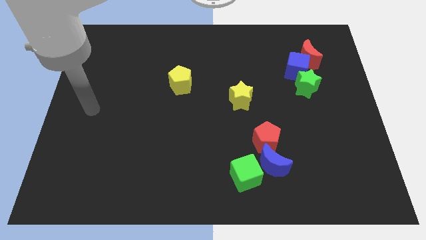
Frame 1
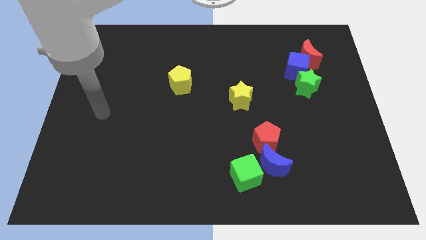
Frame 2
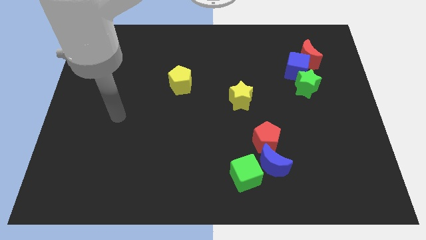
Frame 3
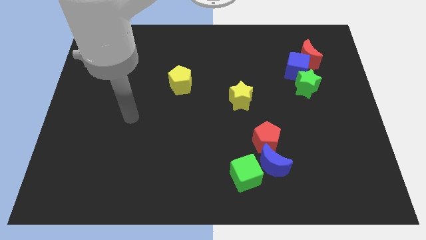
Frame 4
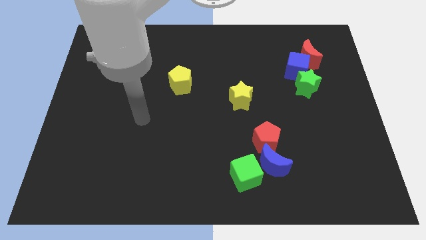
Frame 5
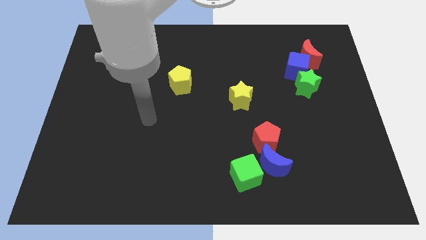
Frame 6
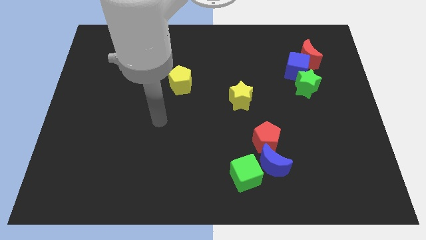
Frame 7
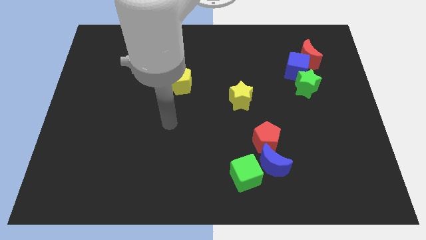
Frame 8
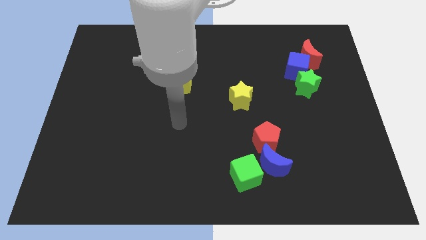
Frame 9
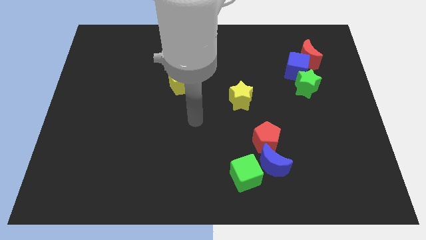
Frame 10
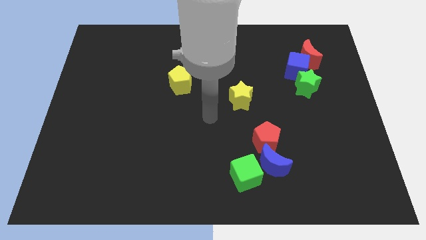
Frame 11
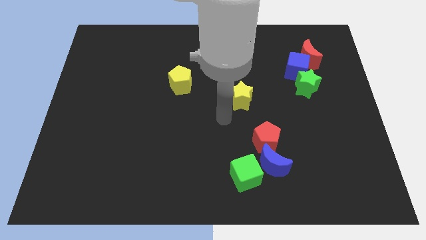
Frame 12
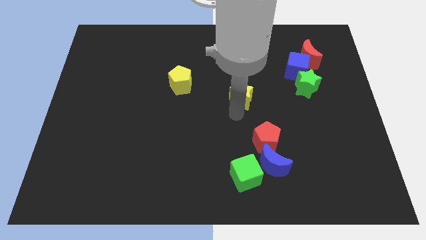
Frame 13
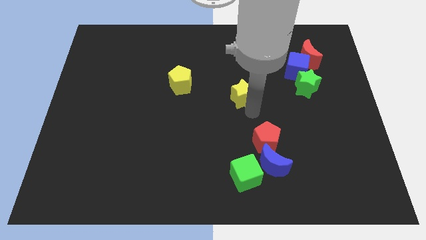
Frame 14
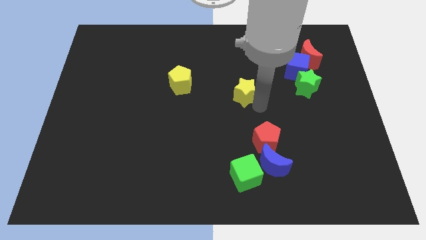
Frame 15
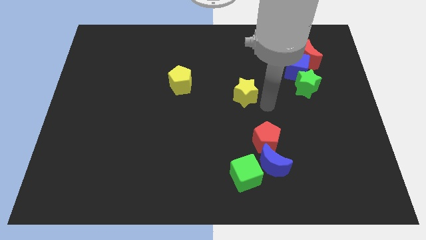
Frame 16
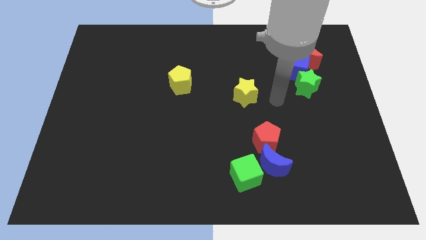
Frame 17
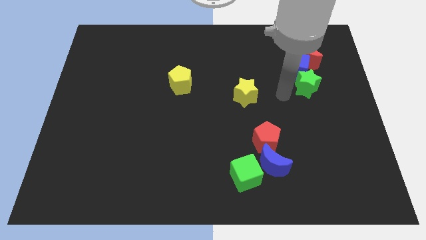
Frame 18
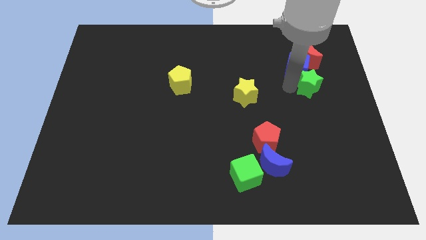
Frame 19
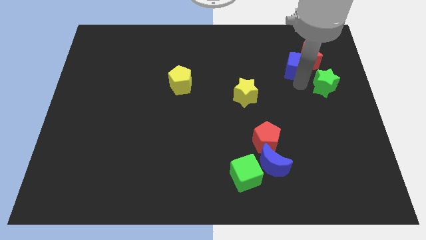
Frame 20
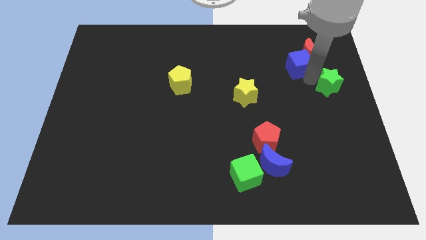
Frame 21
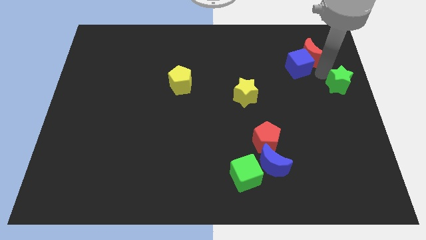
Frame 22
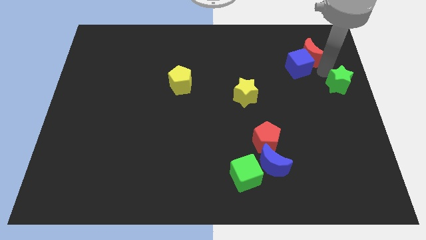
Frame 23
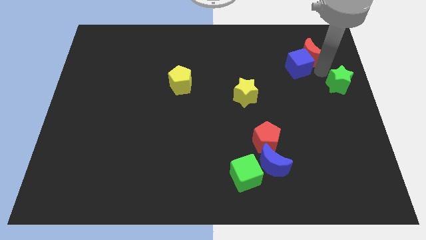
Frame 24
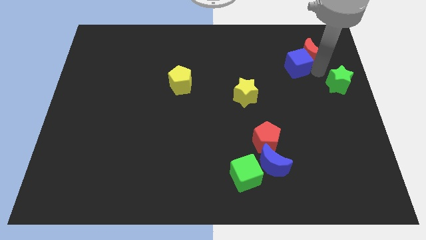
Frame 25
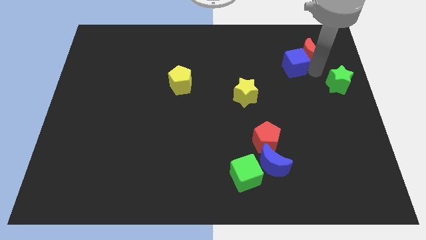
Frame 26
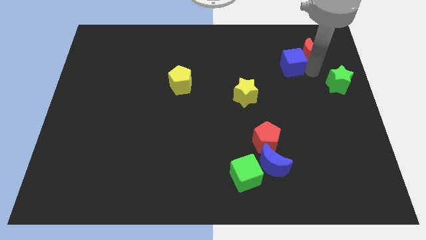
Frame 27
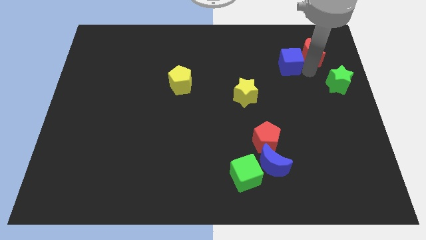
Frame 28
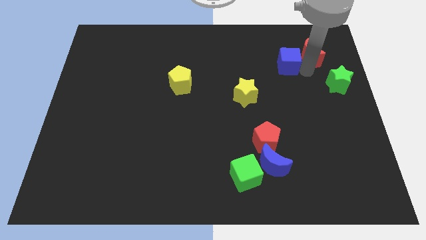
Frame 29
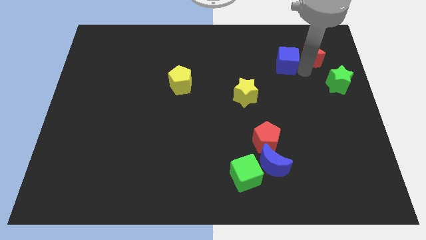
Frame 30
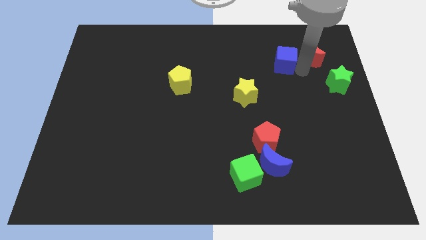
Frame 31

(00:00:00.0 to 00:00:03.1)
separate the blue cube from the red moon and green star

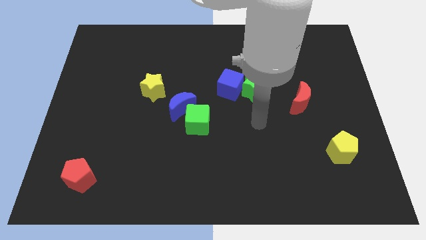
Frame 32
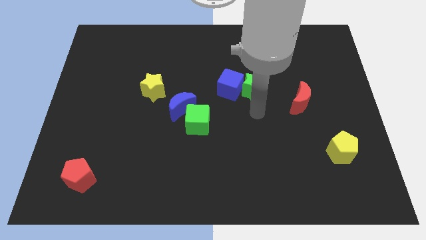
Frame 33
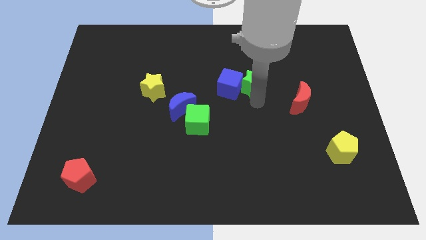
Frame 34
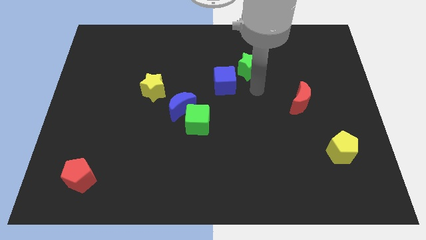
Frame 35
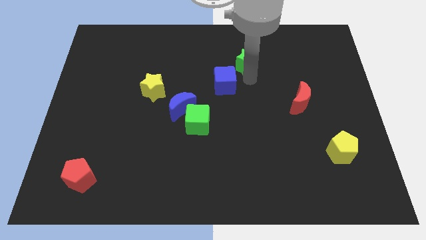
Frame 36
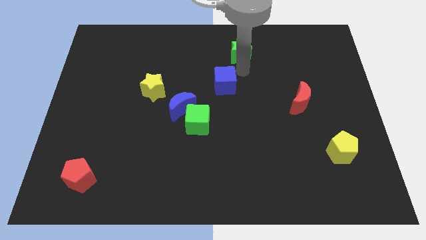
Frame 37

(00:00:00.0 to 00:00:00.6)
pull the blue cube apart from the green star

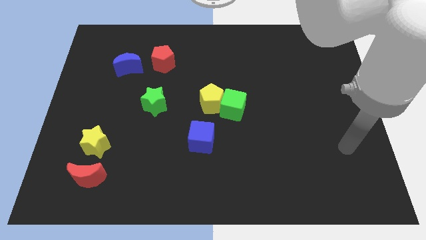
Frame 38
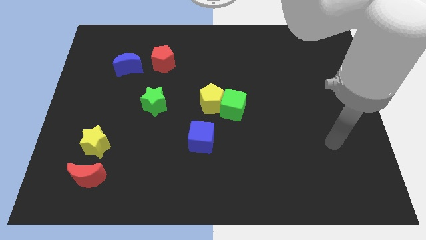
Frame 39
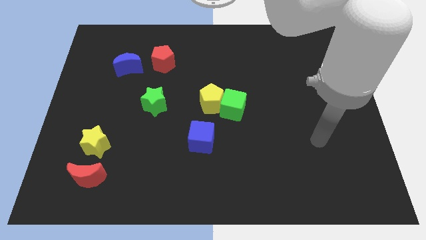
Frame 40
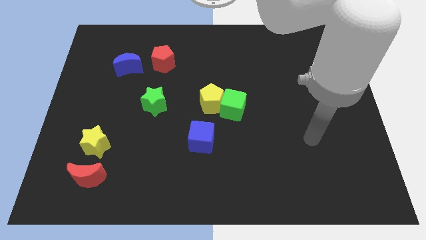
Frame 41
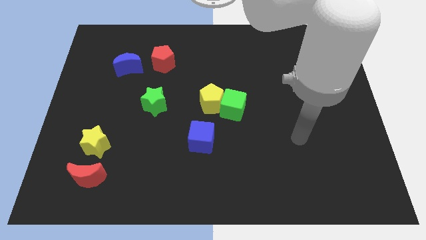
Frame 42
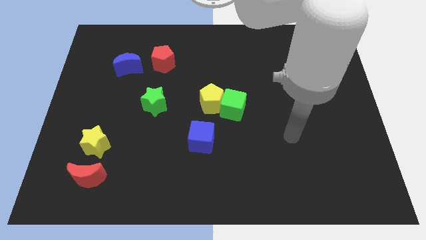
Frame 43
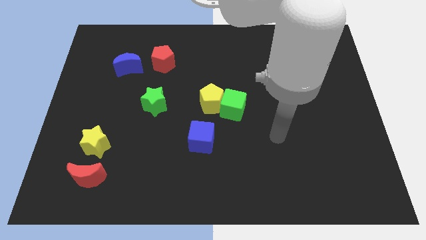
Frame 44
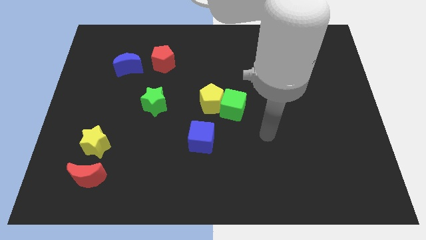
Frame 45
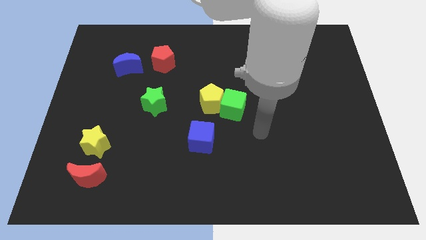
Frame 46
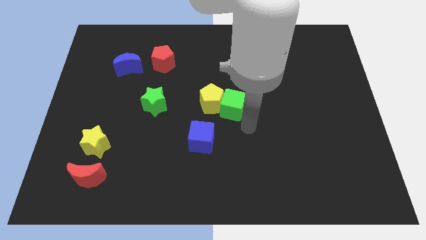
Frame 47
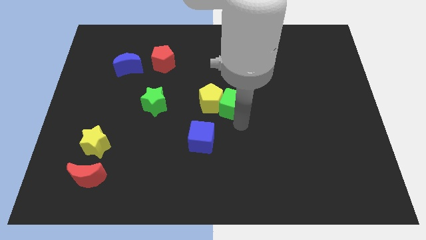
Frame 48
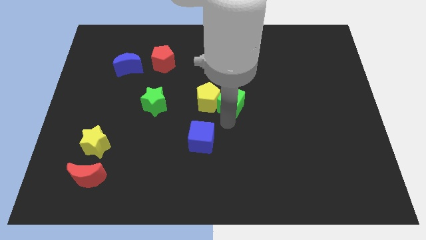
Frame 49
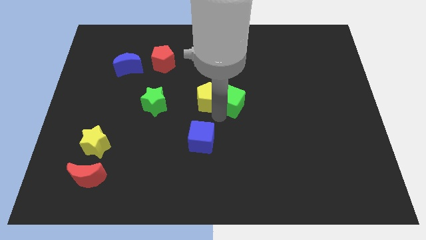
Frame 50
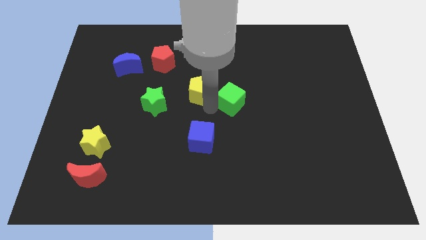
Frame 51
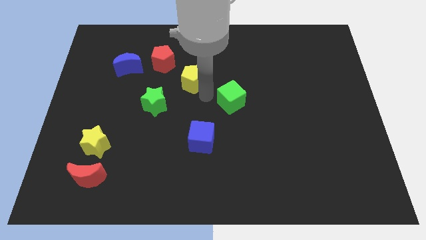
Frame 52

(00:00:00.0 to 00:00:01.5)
pull the green cube apart from the yellow pentagon

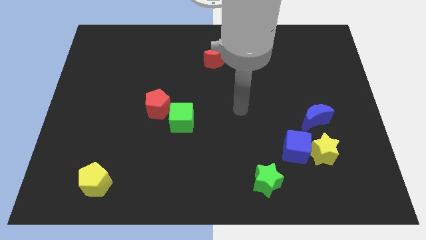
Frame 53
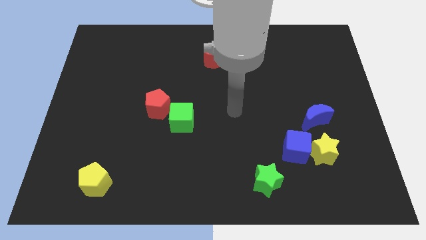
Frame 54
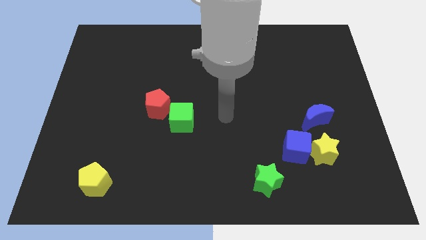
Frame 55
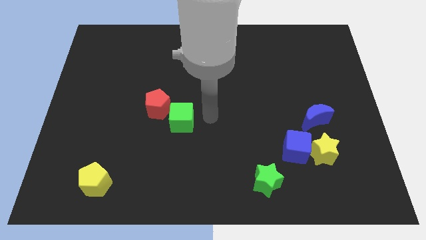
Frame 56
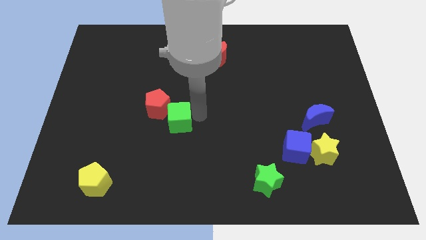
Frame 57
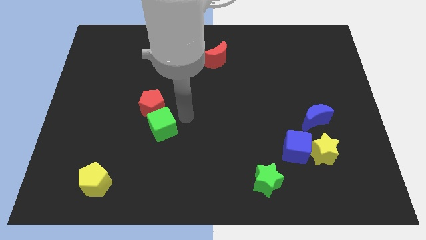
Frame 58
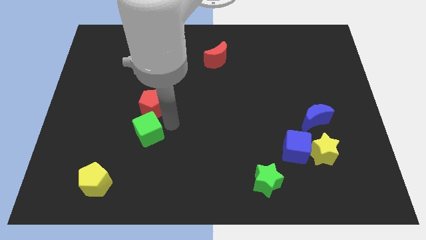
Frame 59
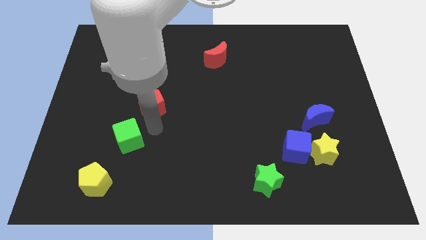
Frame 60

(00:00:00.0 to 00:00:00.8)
pull the red pentagon apart from the green cube

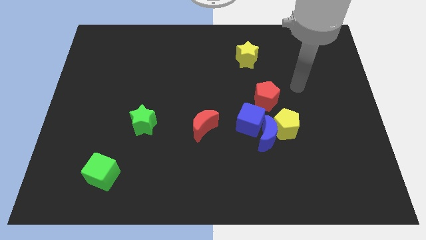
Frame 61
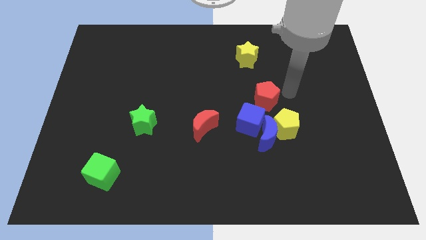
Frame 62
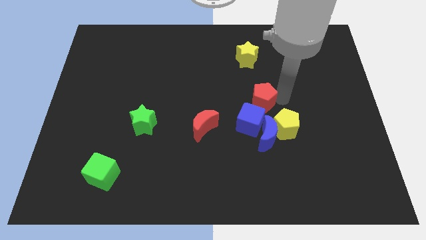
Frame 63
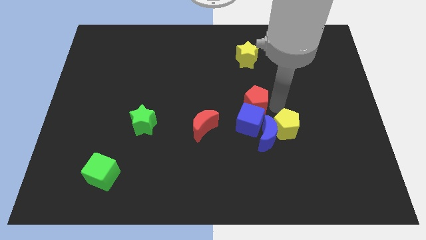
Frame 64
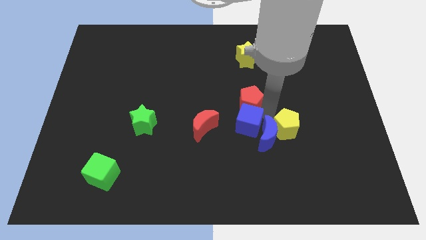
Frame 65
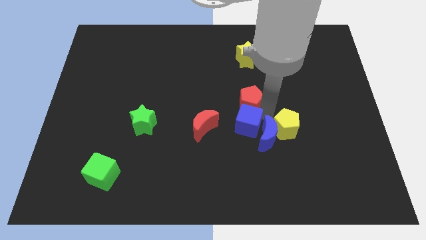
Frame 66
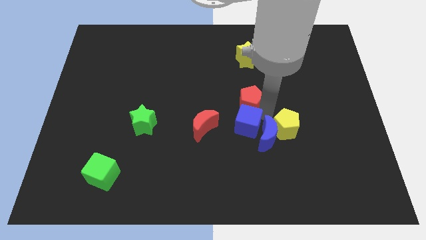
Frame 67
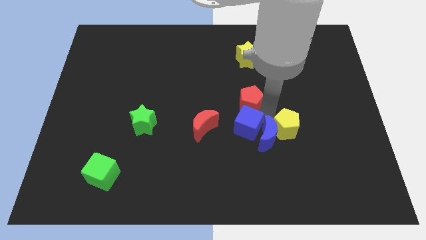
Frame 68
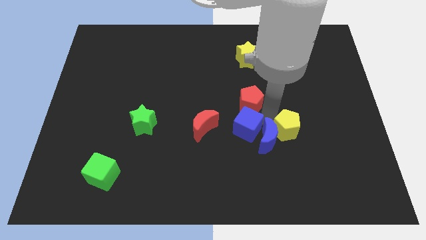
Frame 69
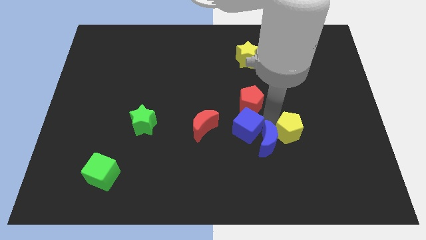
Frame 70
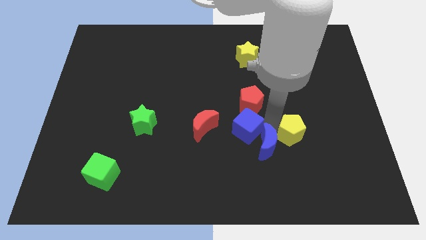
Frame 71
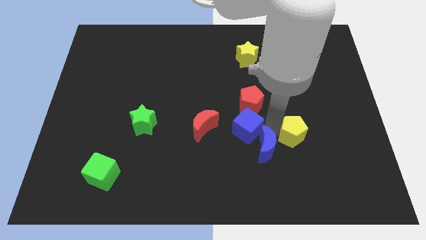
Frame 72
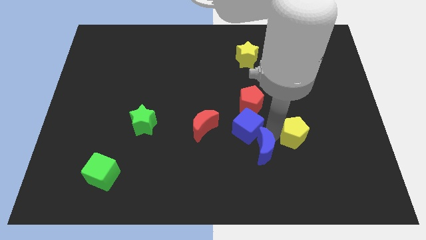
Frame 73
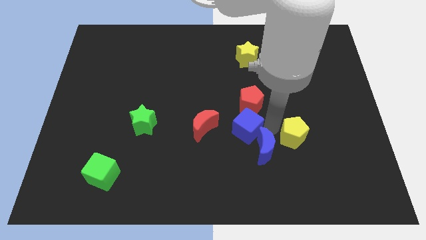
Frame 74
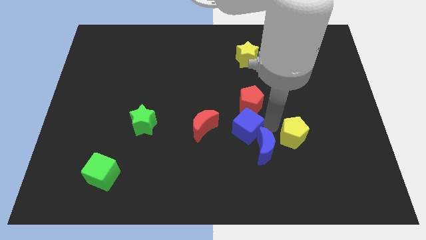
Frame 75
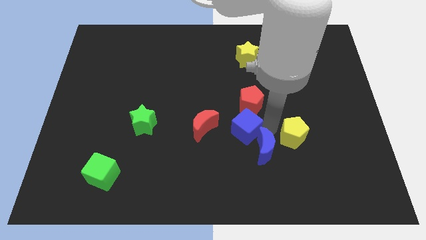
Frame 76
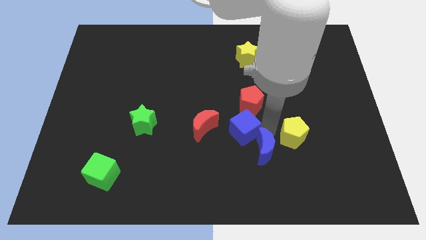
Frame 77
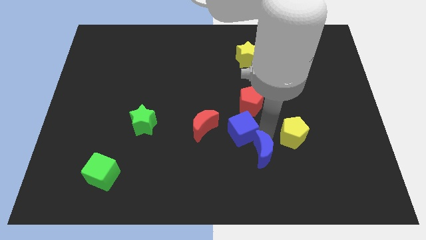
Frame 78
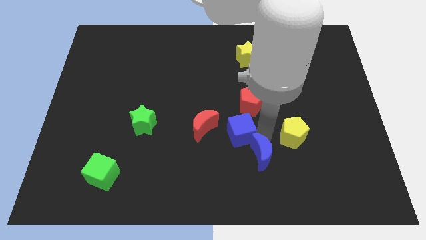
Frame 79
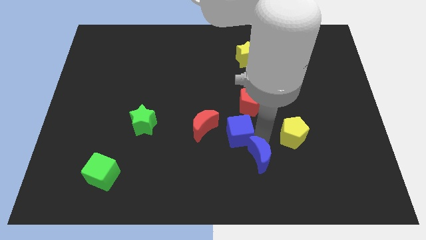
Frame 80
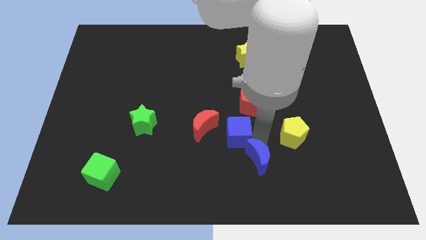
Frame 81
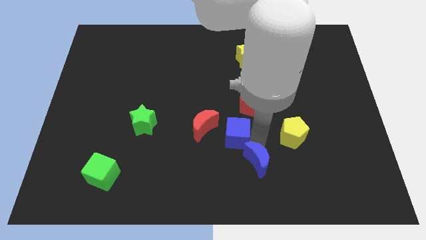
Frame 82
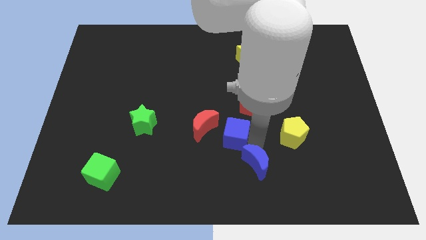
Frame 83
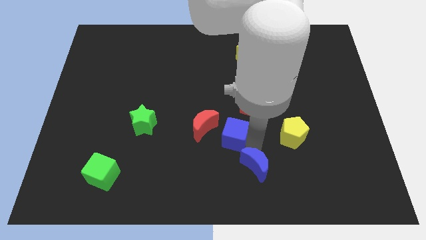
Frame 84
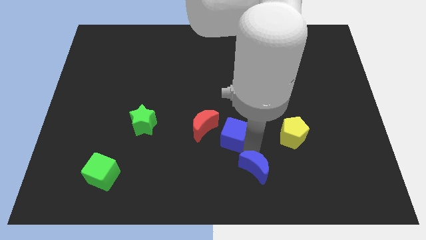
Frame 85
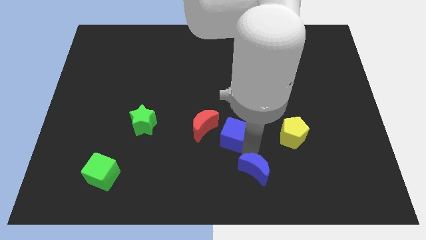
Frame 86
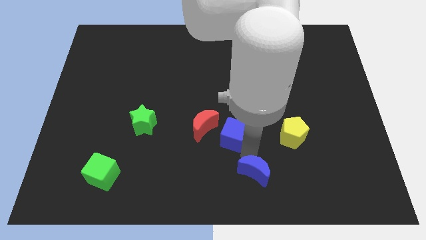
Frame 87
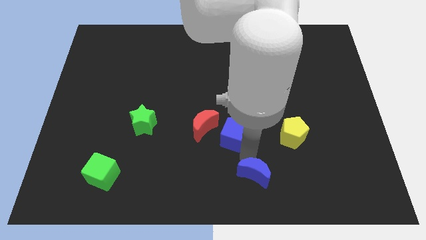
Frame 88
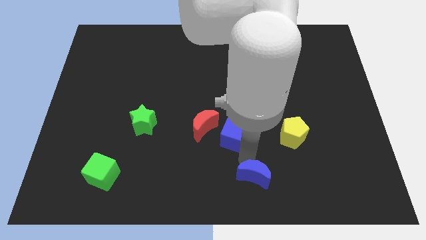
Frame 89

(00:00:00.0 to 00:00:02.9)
separate the blue moon from the yellow pentagon and blue cube

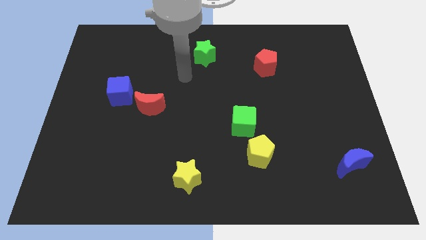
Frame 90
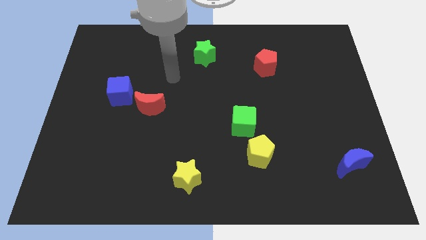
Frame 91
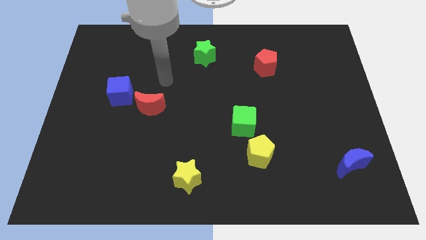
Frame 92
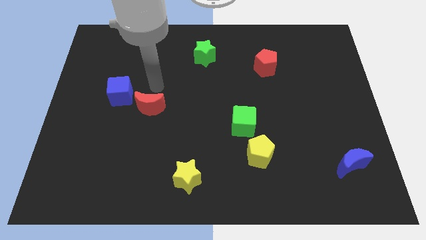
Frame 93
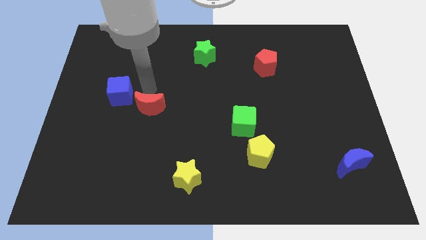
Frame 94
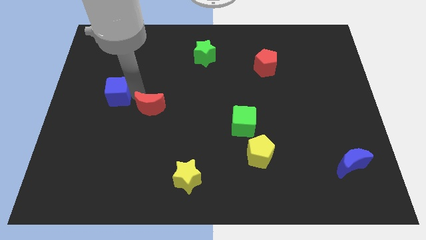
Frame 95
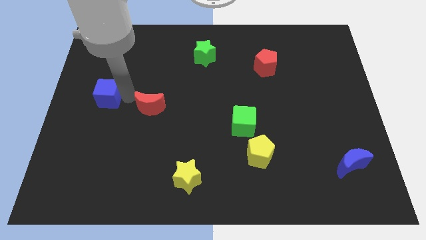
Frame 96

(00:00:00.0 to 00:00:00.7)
pull the red moon apart from the blue cube
